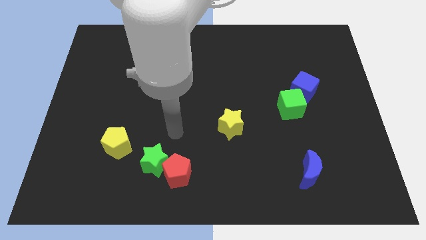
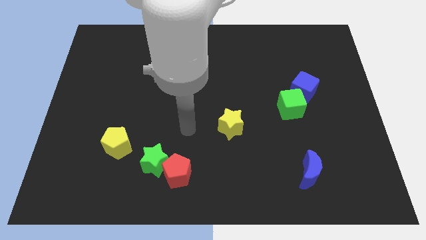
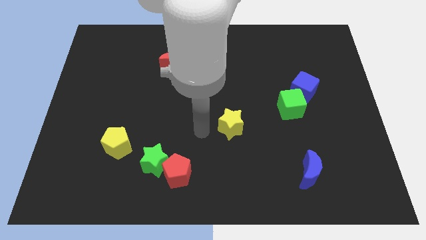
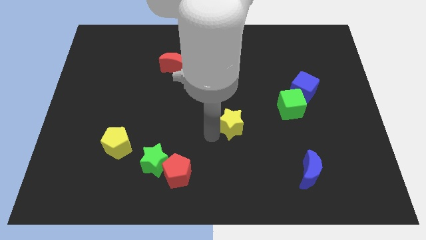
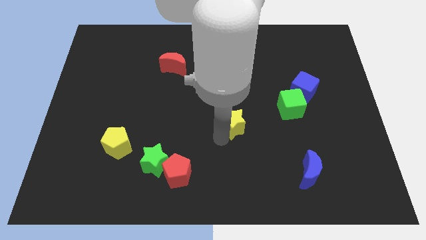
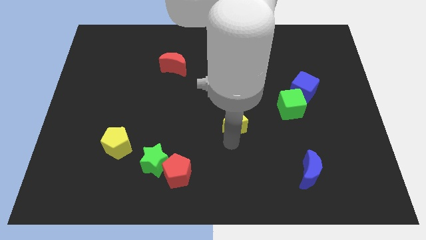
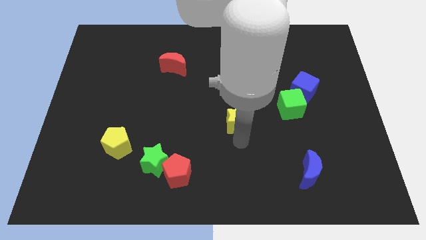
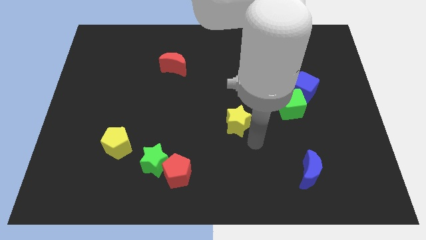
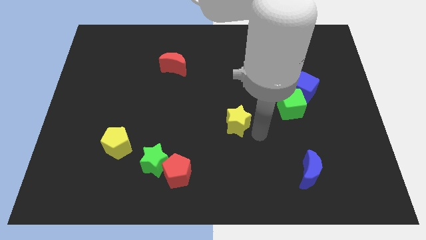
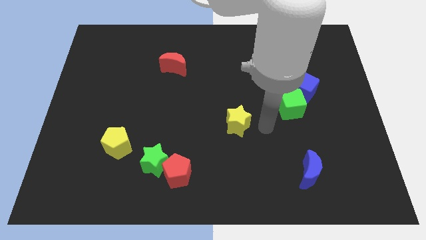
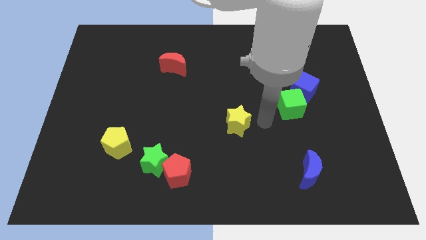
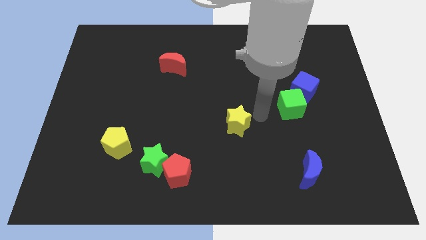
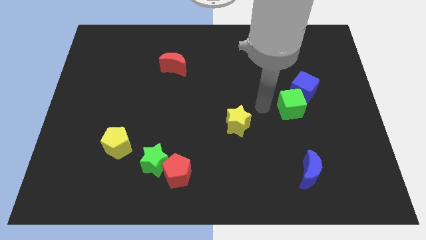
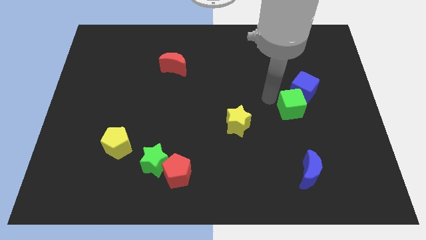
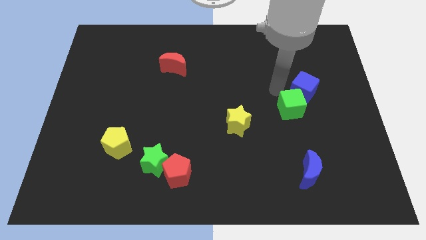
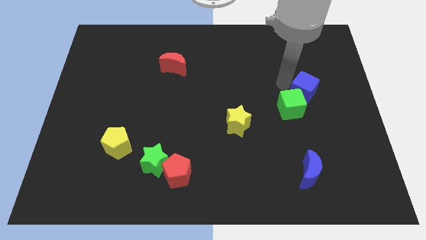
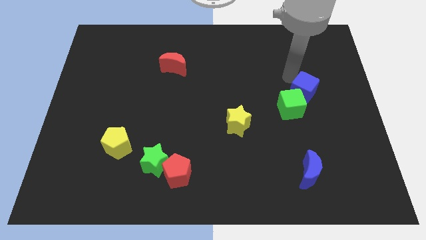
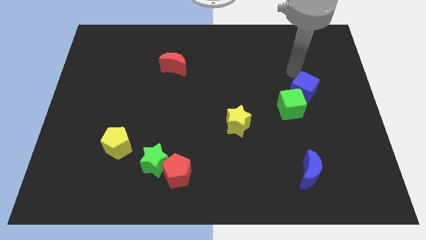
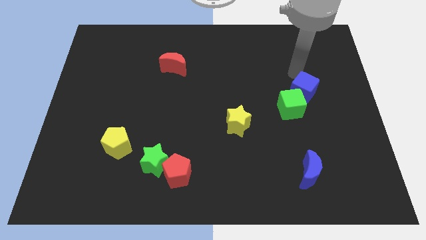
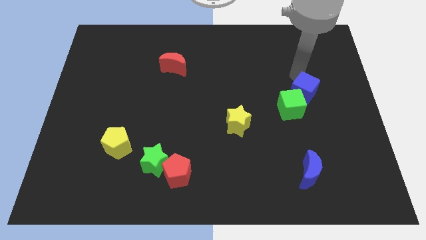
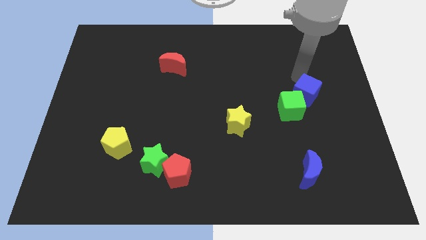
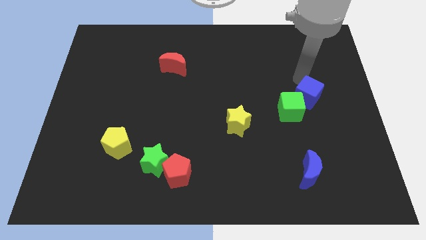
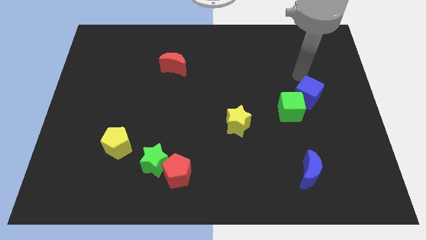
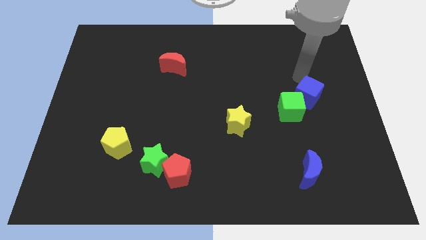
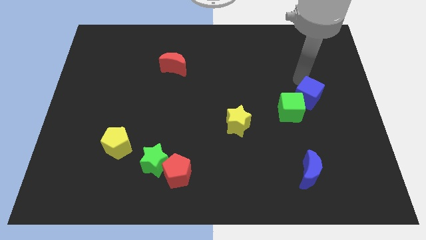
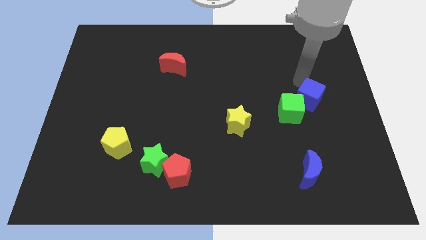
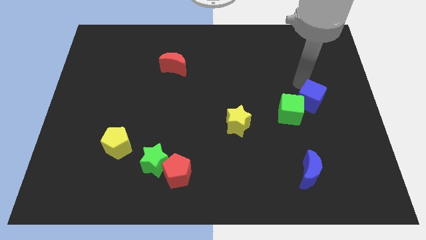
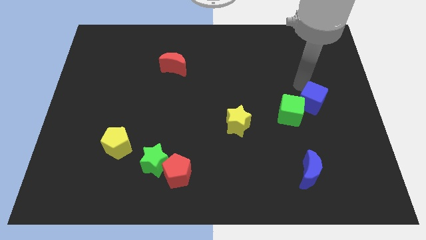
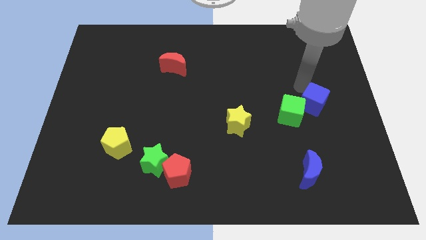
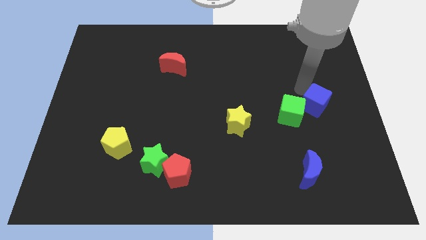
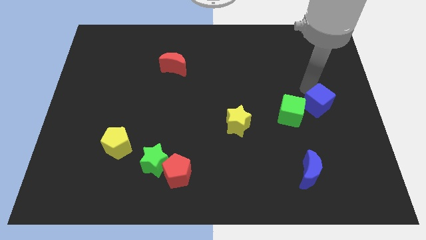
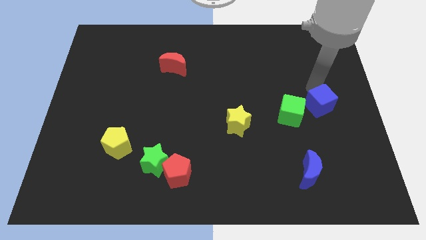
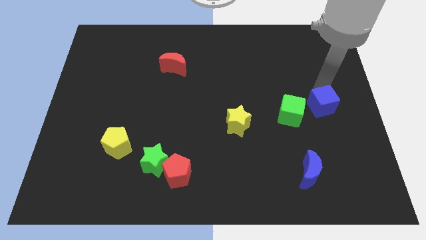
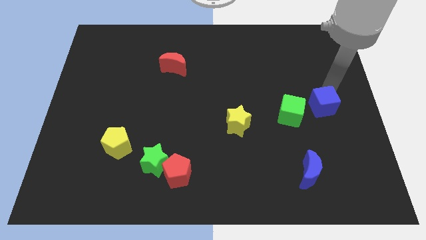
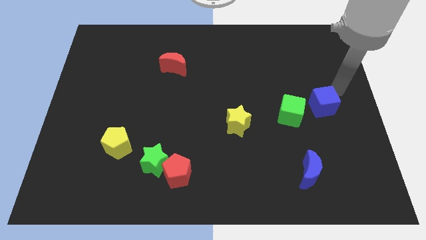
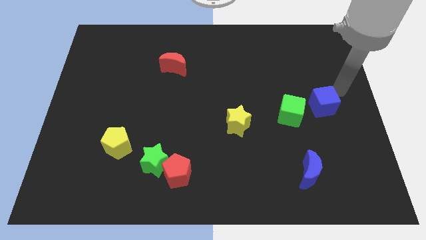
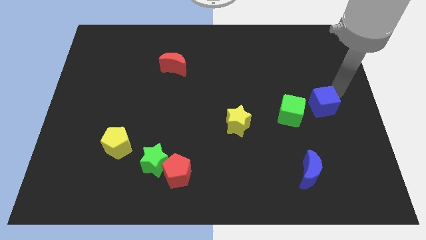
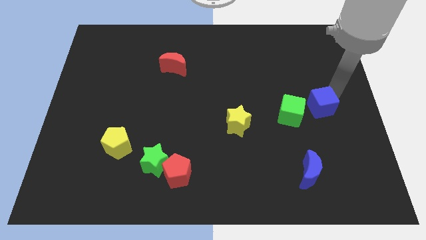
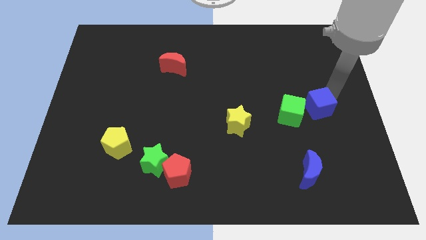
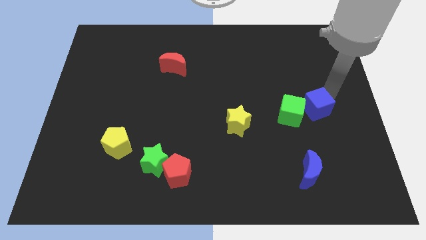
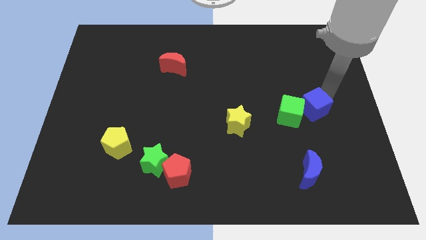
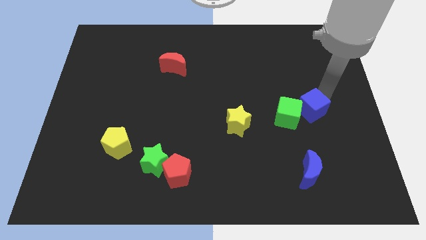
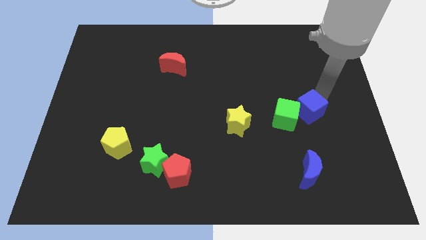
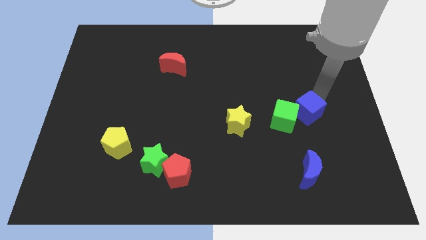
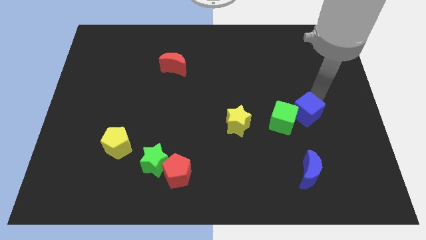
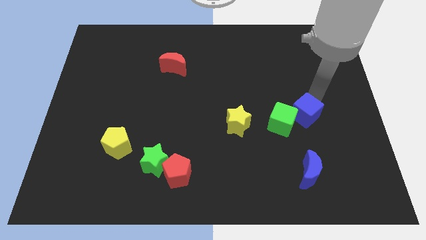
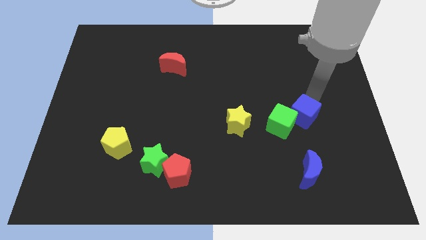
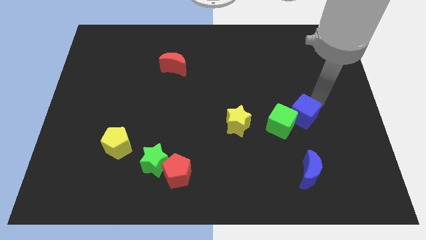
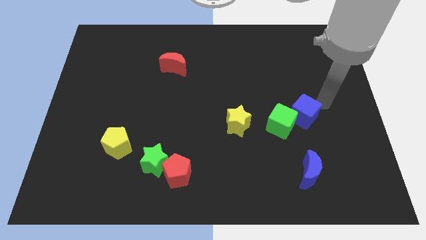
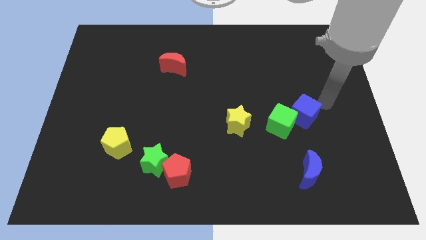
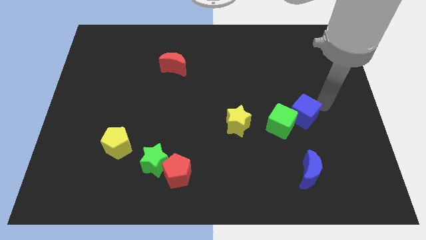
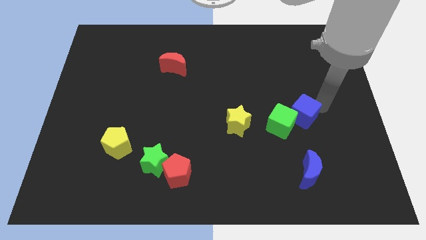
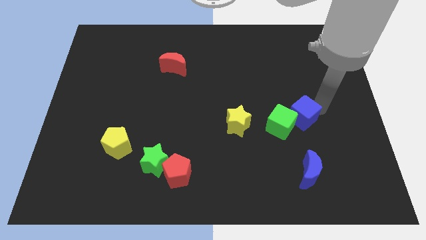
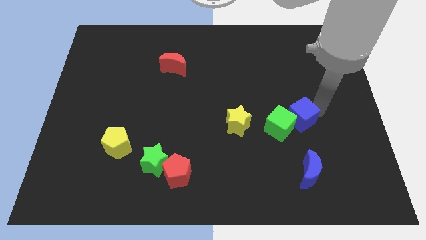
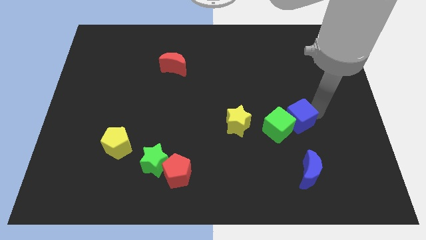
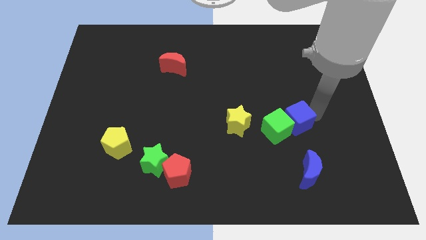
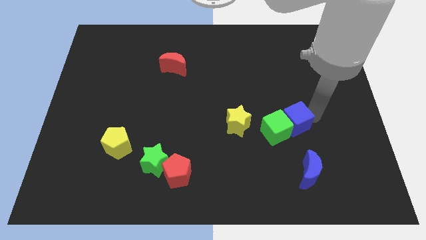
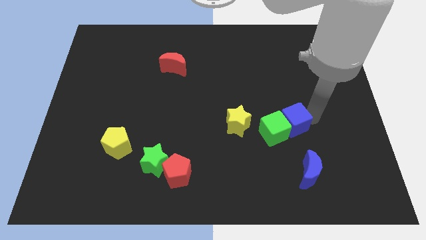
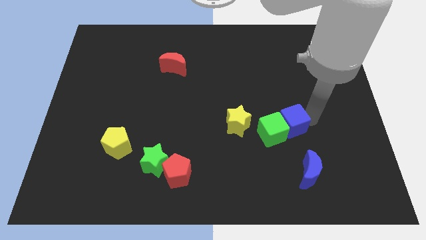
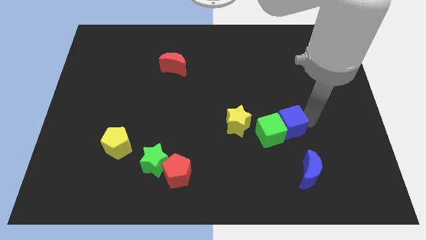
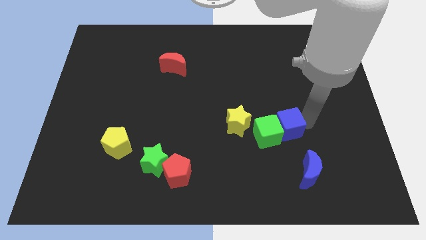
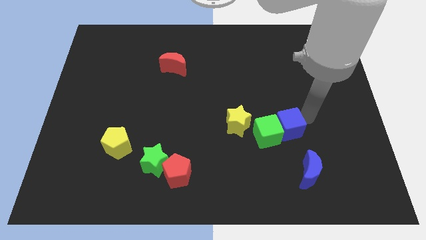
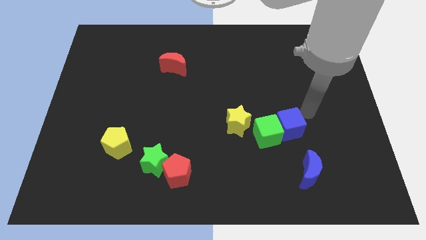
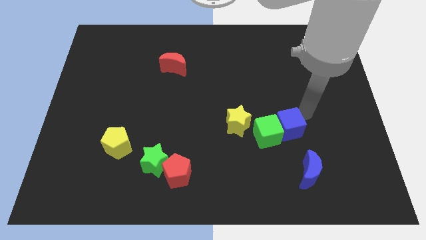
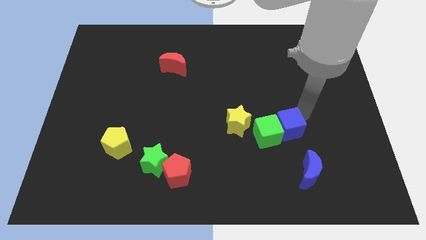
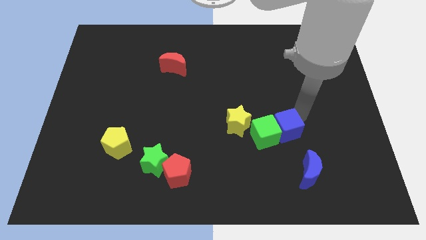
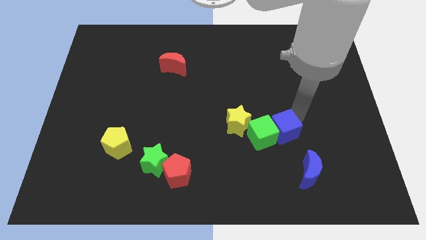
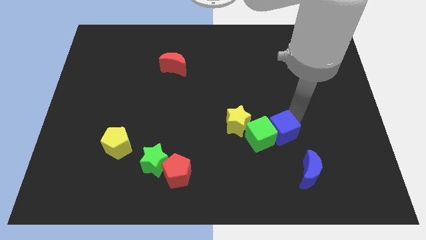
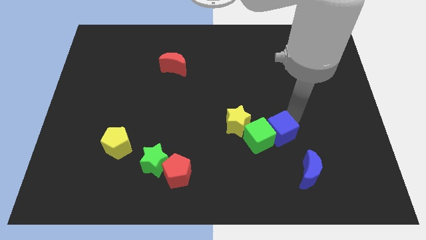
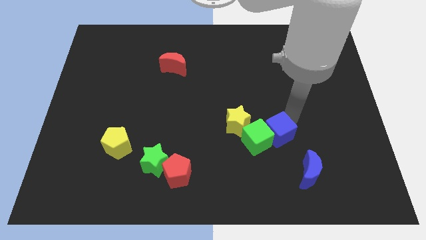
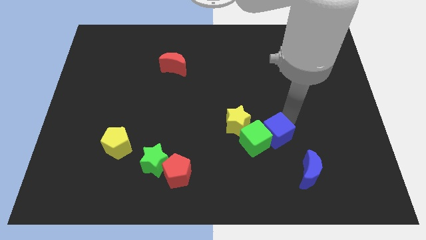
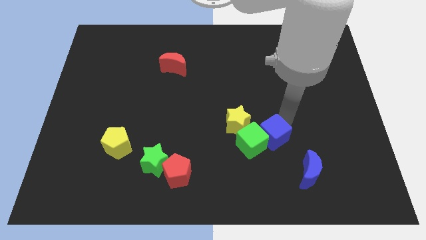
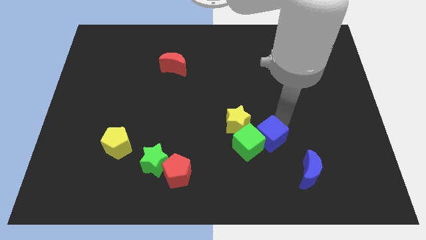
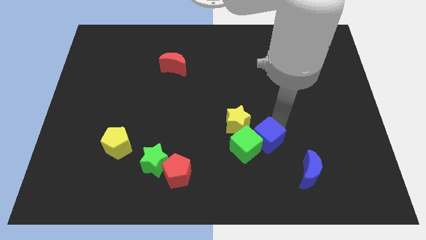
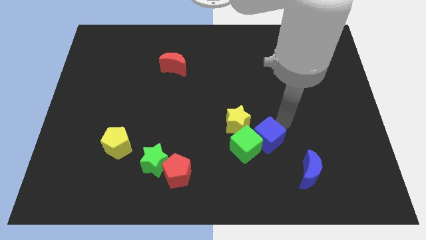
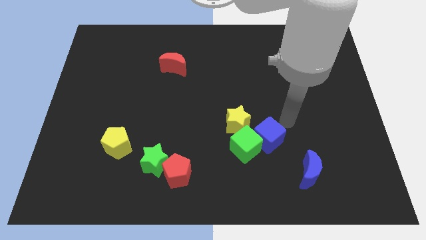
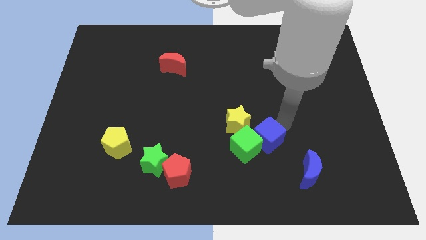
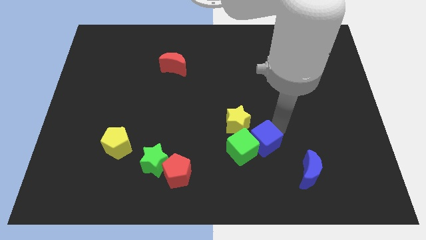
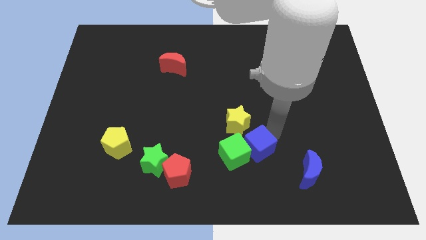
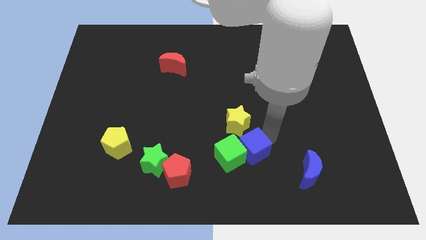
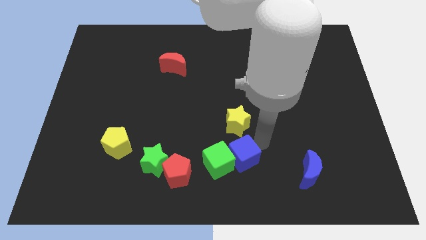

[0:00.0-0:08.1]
put the blue cube to the right side of the red pentagon
